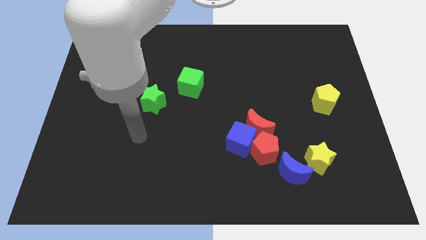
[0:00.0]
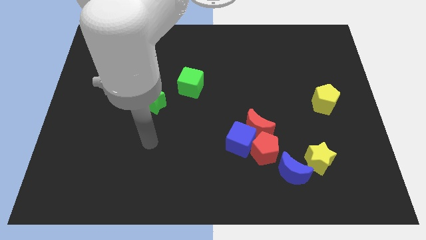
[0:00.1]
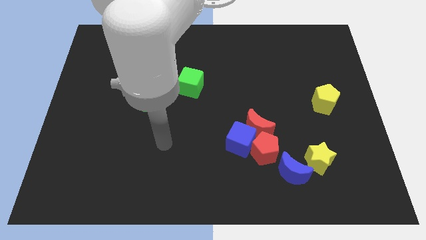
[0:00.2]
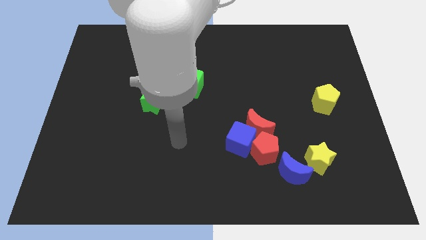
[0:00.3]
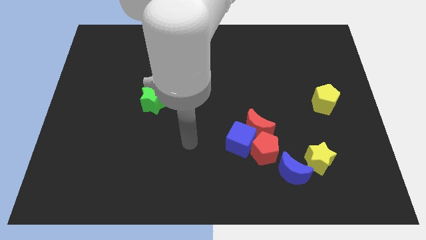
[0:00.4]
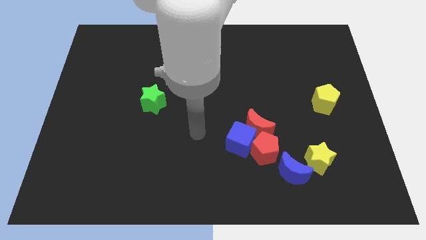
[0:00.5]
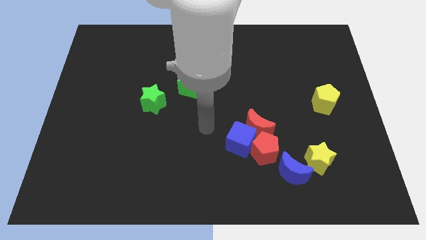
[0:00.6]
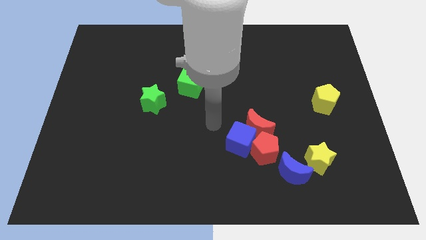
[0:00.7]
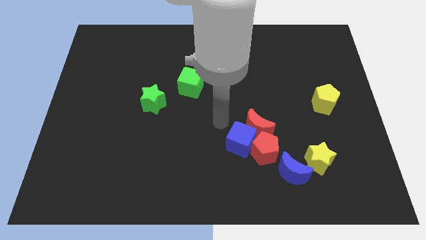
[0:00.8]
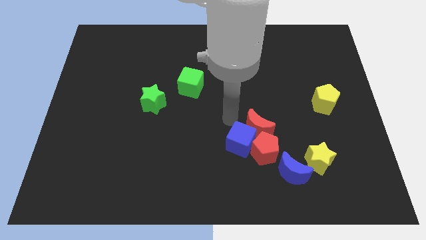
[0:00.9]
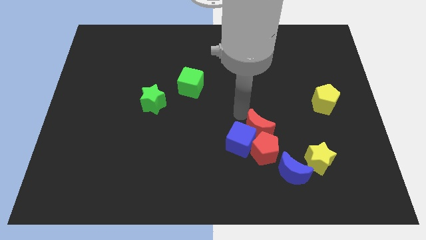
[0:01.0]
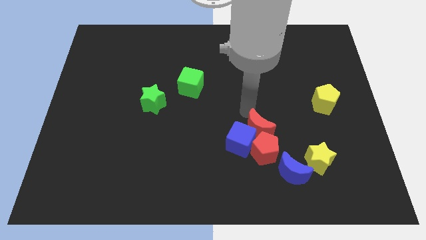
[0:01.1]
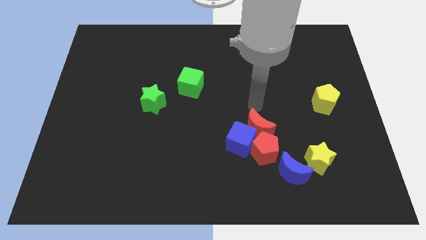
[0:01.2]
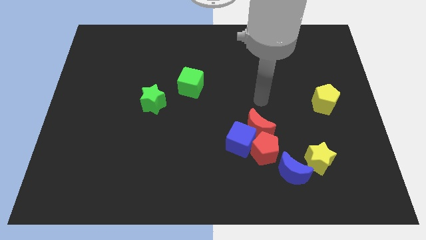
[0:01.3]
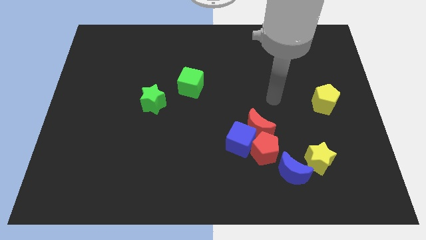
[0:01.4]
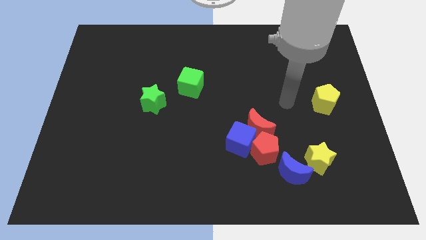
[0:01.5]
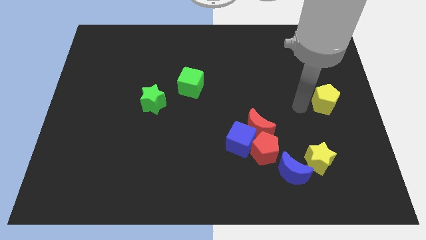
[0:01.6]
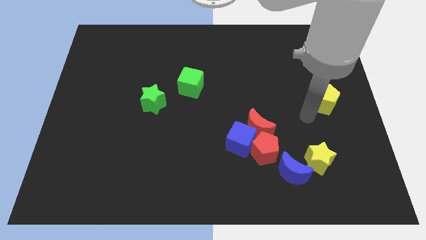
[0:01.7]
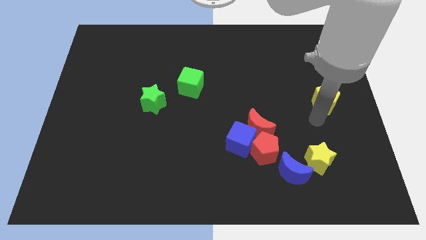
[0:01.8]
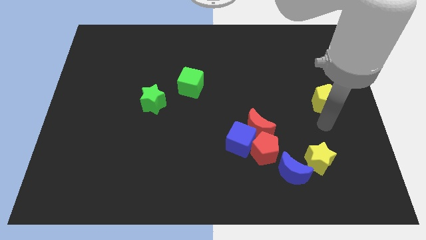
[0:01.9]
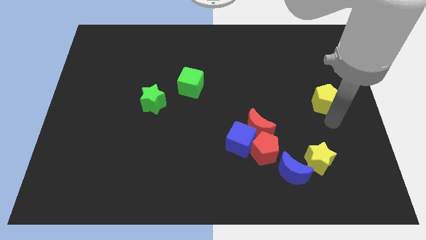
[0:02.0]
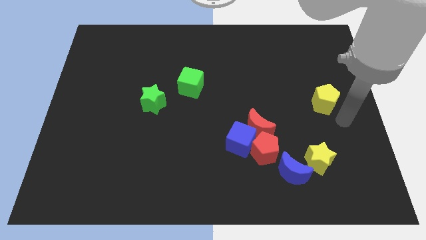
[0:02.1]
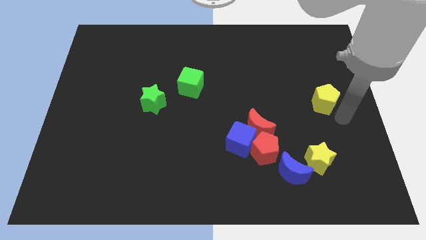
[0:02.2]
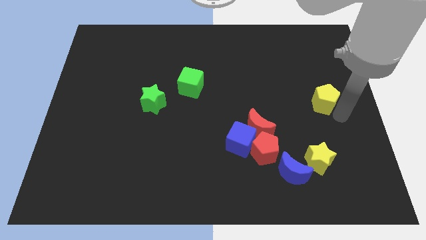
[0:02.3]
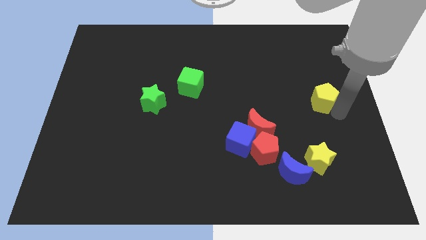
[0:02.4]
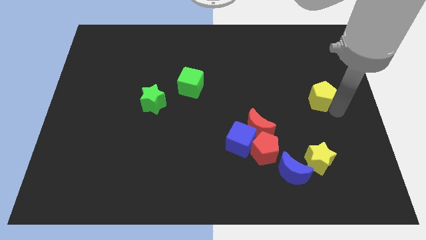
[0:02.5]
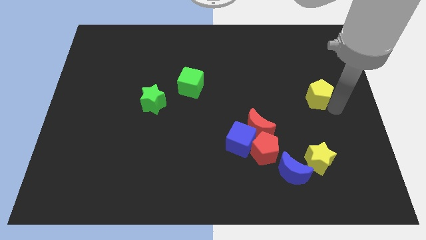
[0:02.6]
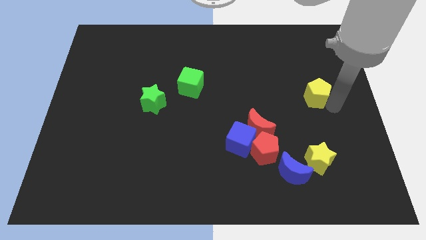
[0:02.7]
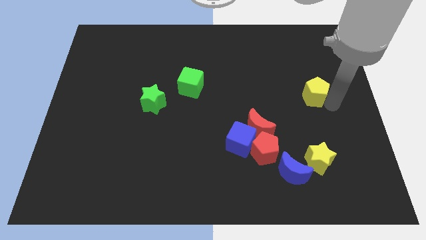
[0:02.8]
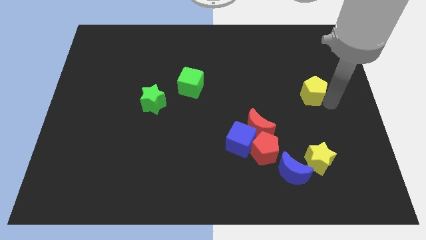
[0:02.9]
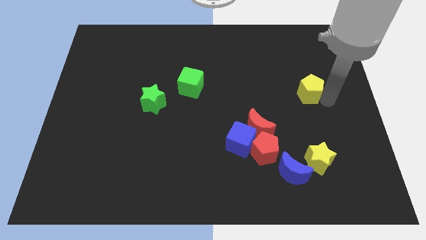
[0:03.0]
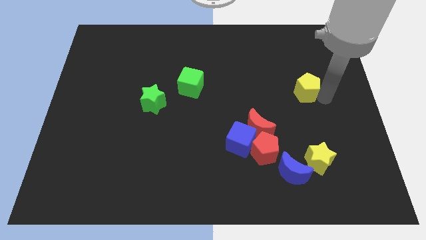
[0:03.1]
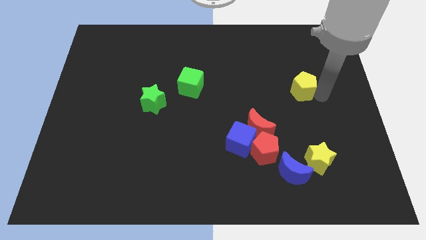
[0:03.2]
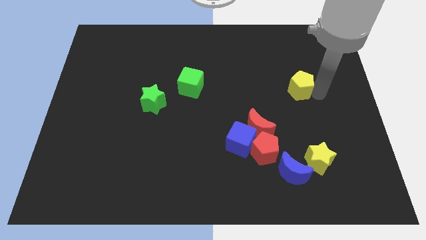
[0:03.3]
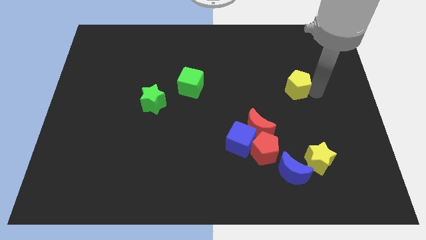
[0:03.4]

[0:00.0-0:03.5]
move the yellow pentagon a little bit upwards and to the left

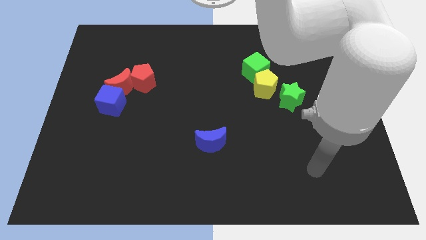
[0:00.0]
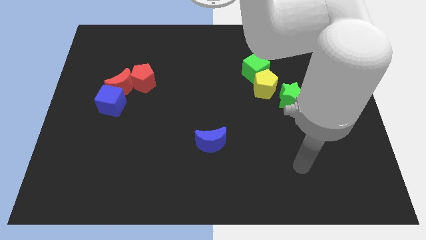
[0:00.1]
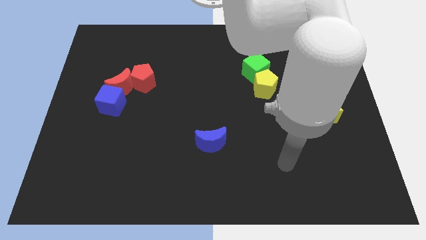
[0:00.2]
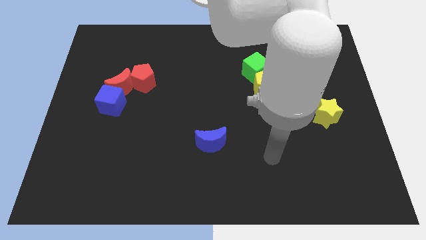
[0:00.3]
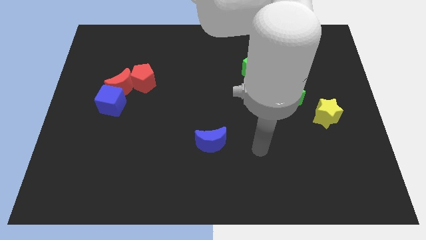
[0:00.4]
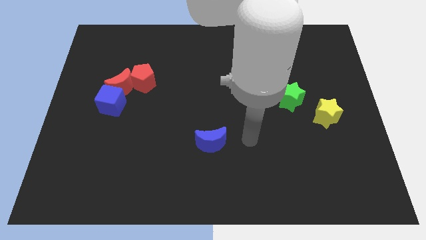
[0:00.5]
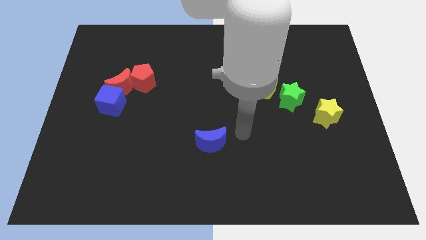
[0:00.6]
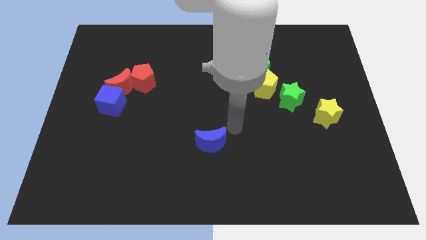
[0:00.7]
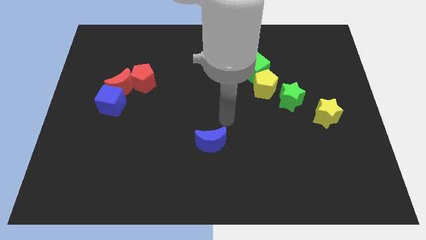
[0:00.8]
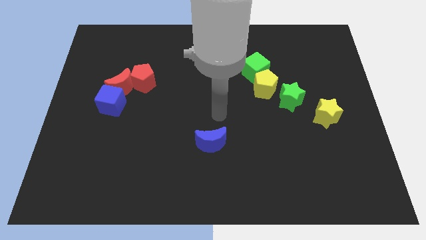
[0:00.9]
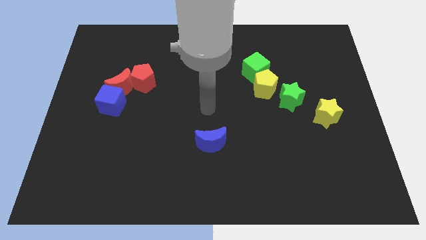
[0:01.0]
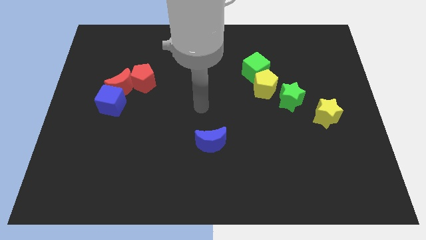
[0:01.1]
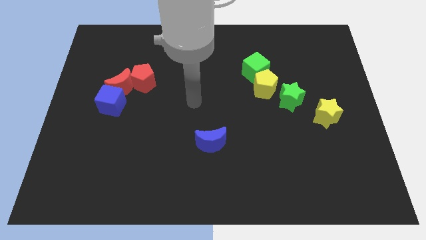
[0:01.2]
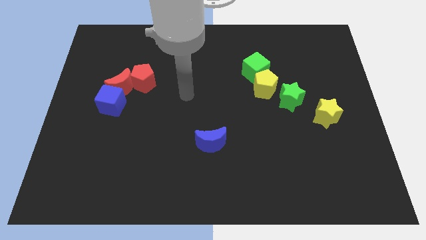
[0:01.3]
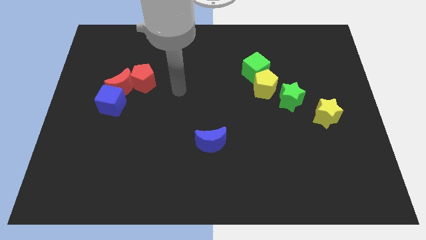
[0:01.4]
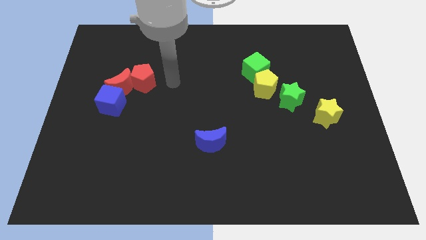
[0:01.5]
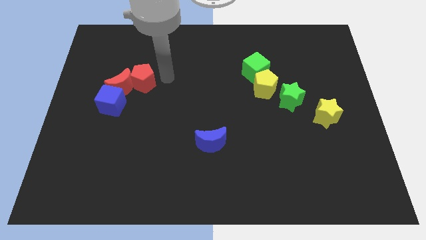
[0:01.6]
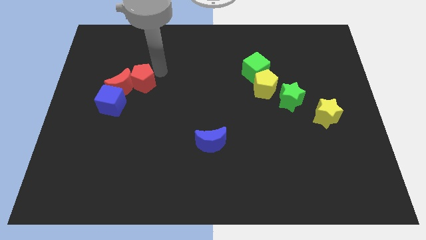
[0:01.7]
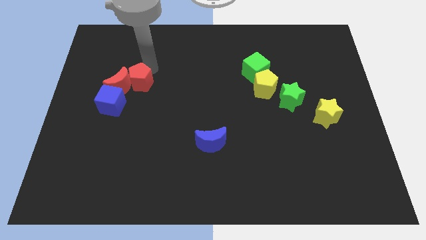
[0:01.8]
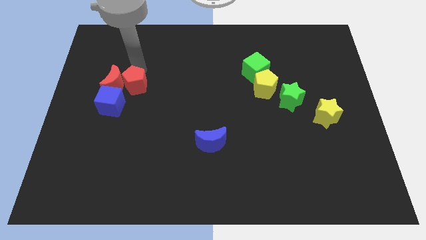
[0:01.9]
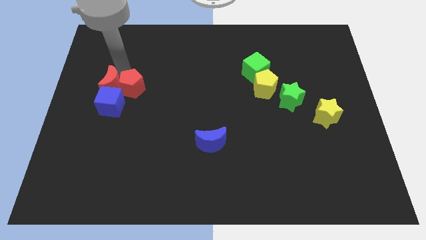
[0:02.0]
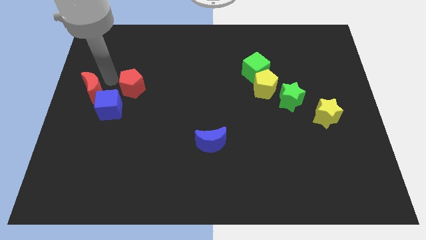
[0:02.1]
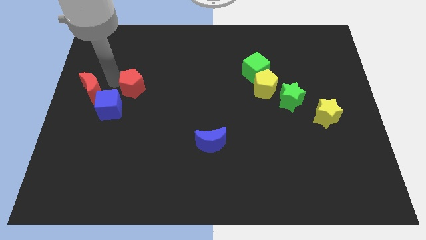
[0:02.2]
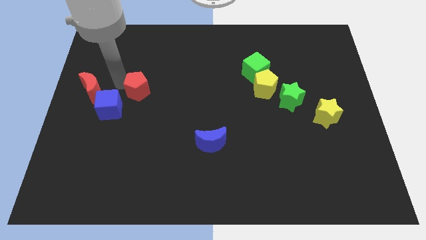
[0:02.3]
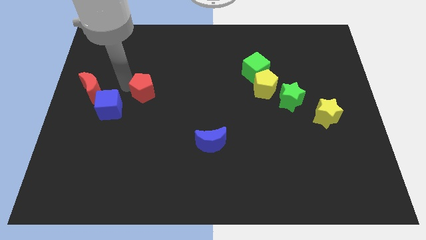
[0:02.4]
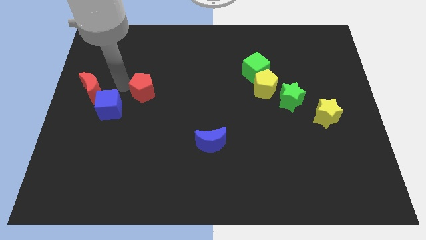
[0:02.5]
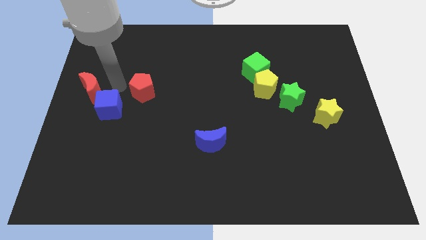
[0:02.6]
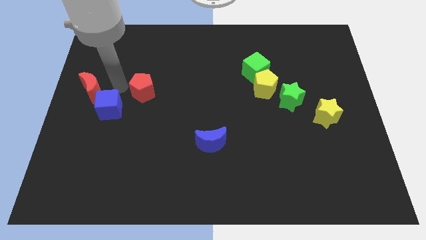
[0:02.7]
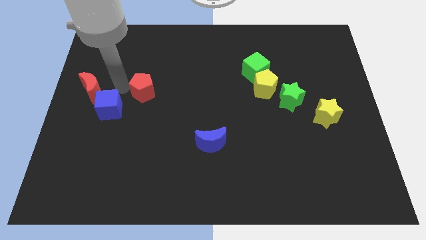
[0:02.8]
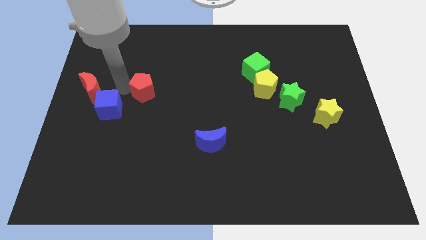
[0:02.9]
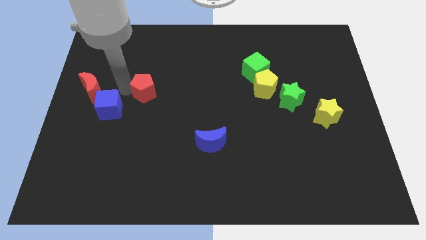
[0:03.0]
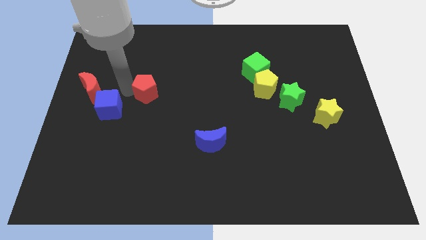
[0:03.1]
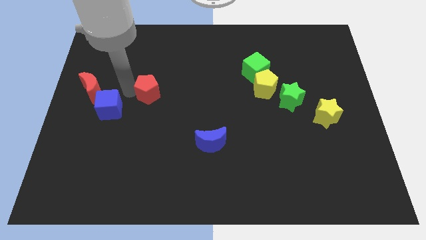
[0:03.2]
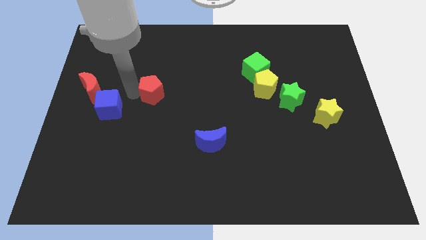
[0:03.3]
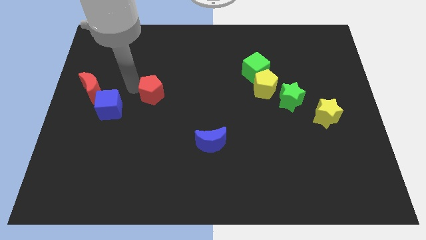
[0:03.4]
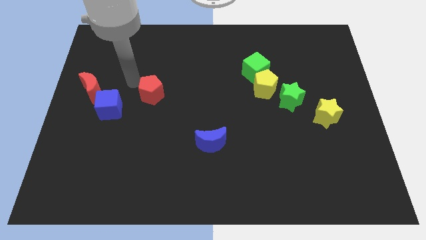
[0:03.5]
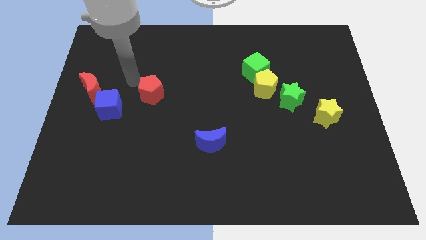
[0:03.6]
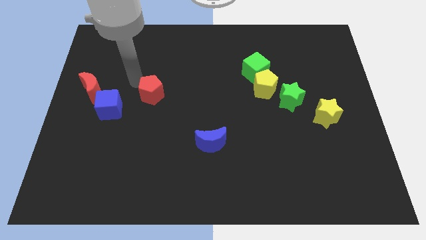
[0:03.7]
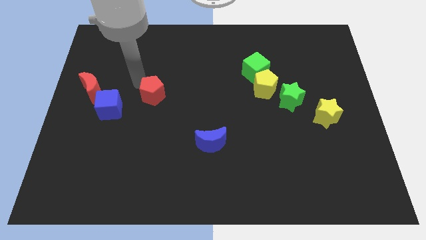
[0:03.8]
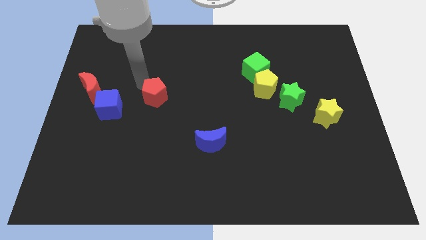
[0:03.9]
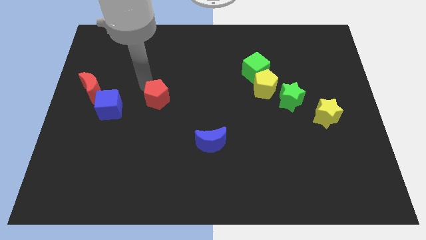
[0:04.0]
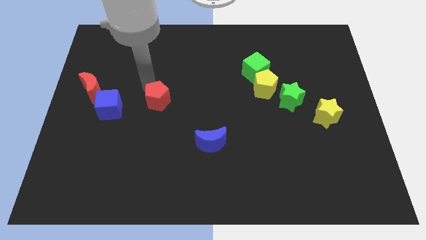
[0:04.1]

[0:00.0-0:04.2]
push the red pentagon slightly downwards and right diagonally
